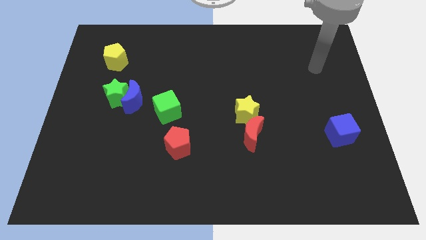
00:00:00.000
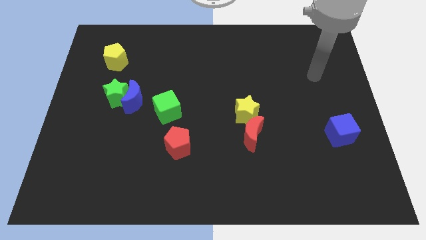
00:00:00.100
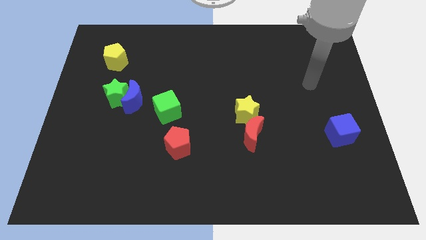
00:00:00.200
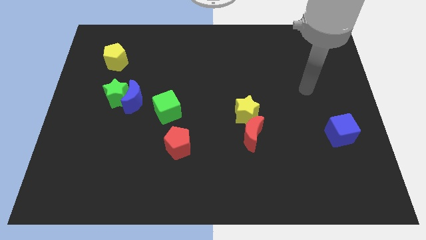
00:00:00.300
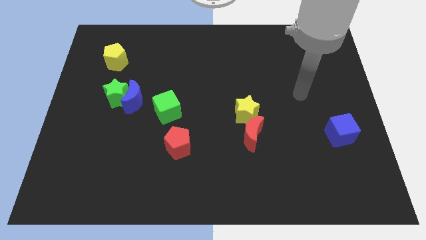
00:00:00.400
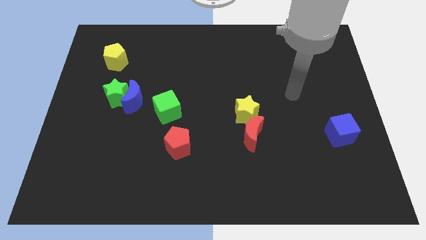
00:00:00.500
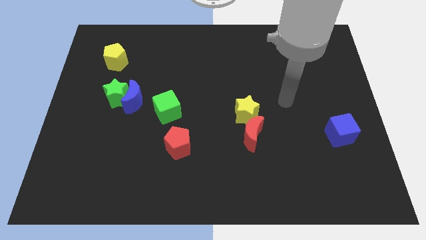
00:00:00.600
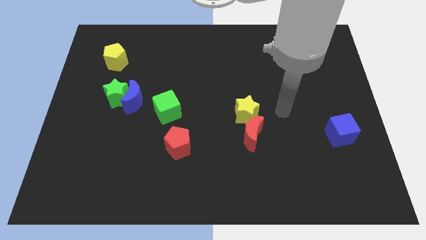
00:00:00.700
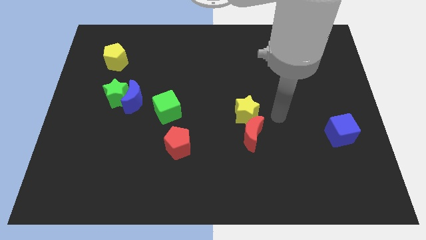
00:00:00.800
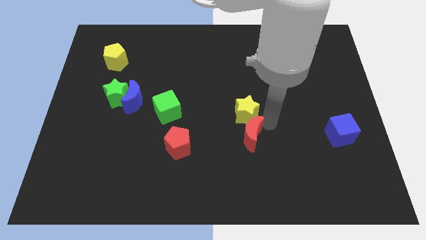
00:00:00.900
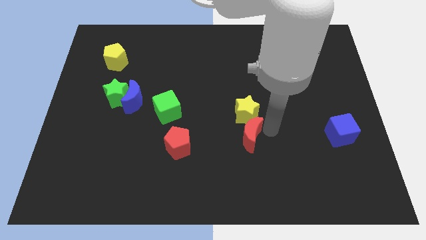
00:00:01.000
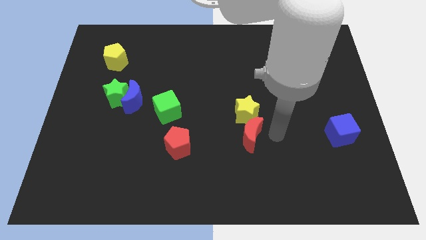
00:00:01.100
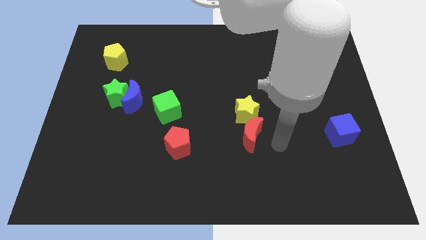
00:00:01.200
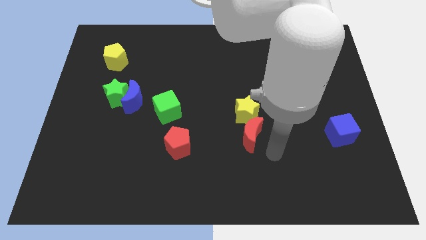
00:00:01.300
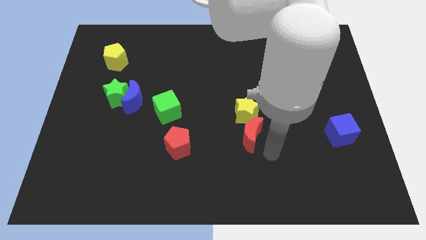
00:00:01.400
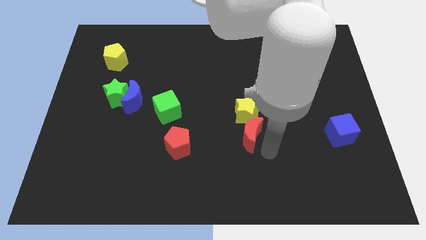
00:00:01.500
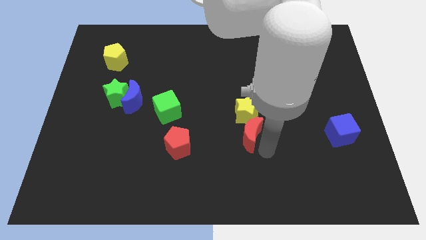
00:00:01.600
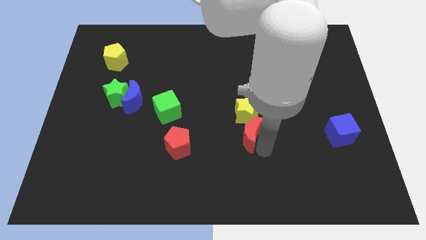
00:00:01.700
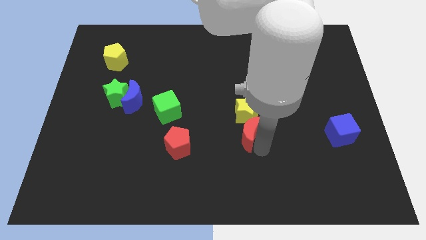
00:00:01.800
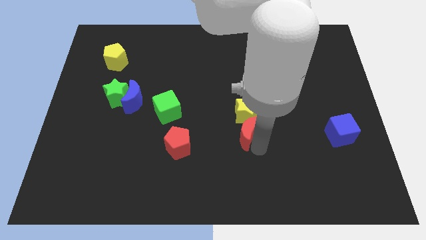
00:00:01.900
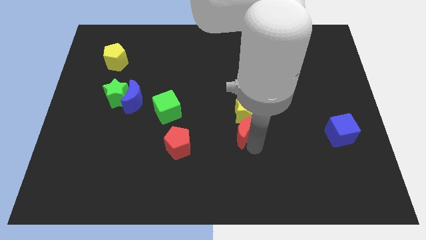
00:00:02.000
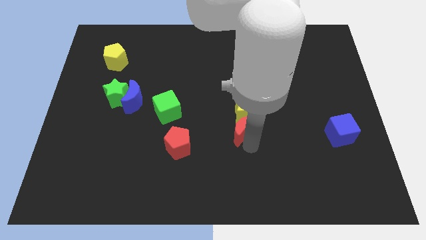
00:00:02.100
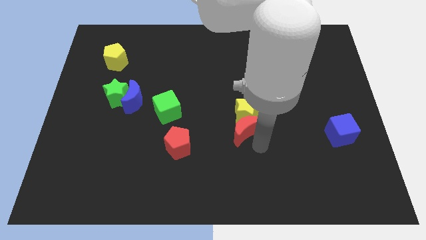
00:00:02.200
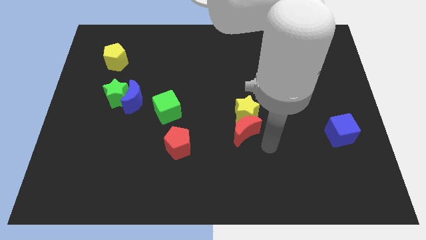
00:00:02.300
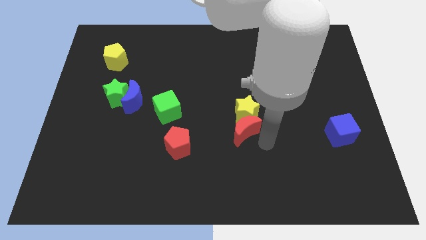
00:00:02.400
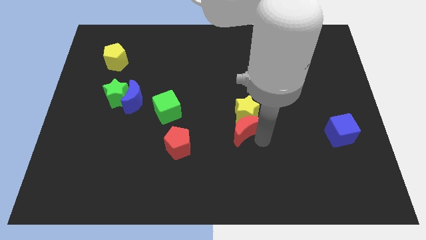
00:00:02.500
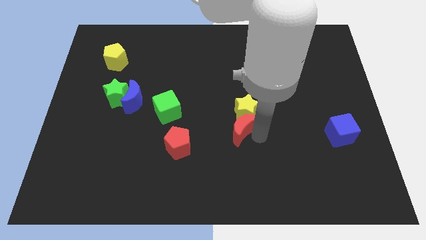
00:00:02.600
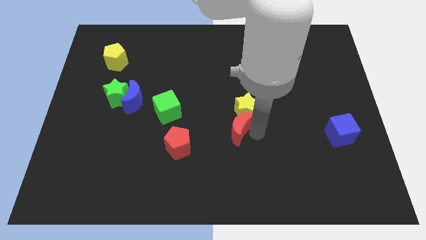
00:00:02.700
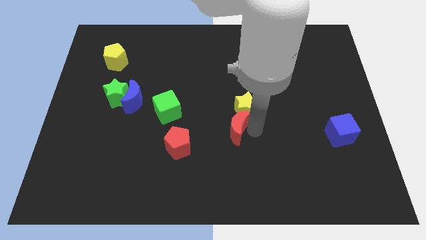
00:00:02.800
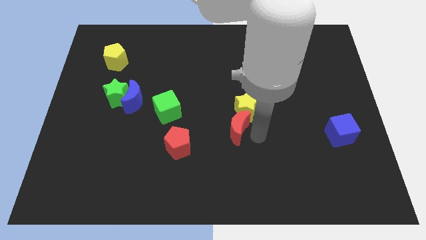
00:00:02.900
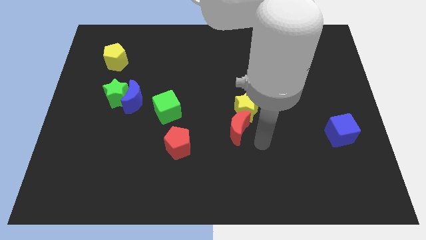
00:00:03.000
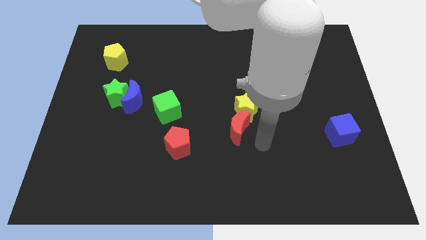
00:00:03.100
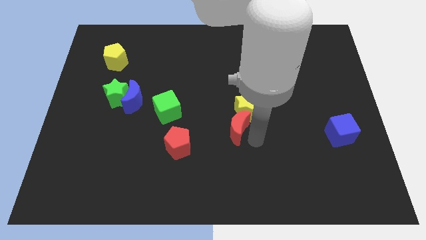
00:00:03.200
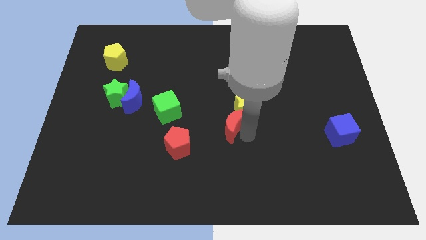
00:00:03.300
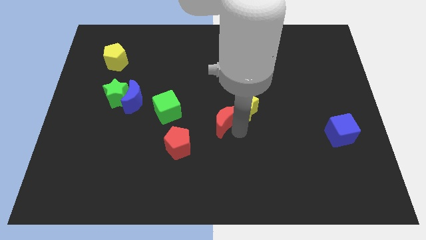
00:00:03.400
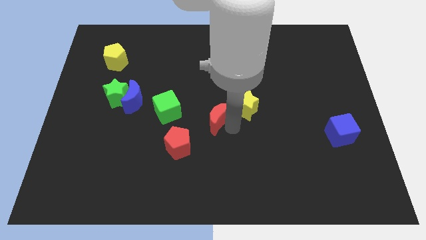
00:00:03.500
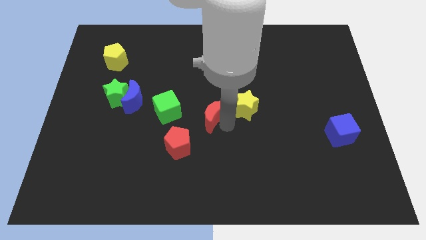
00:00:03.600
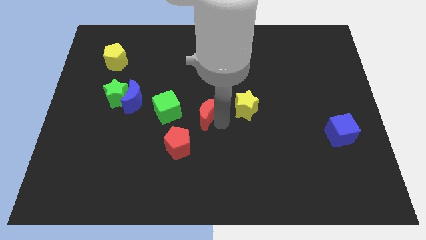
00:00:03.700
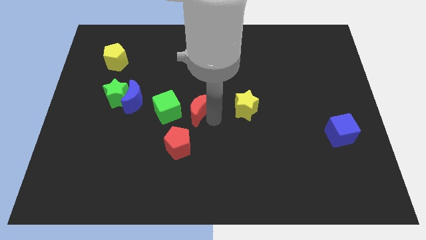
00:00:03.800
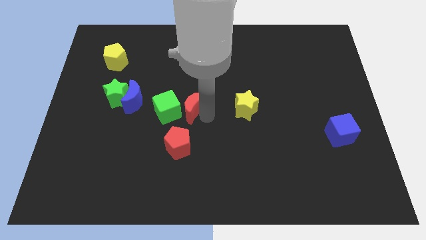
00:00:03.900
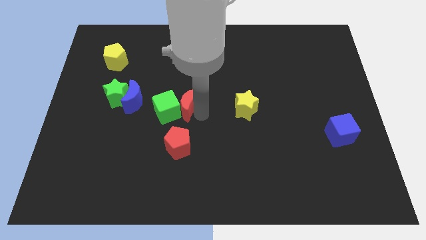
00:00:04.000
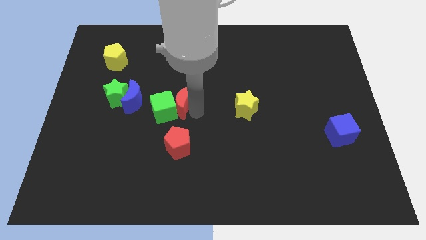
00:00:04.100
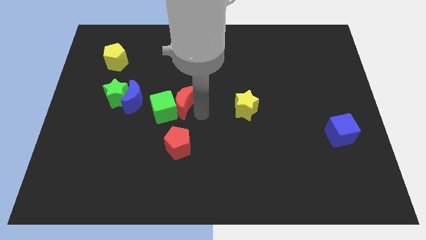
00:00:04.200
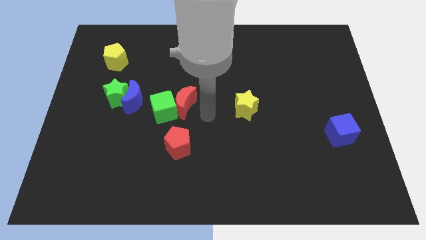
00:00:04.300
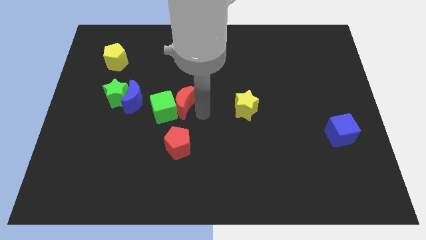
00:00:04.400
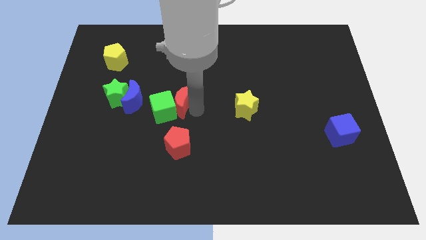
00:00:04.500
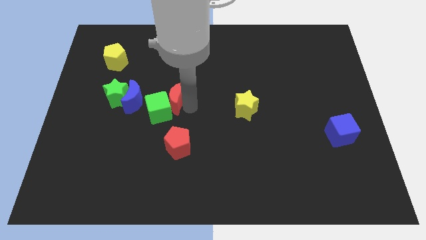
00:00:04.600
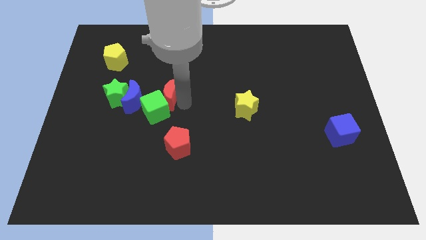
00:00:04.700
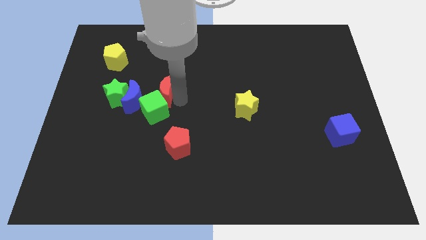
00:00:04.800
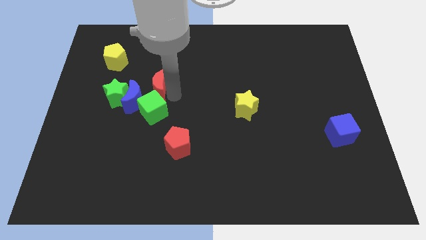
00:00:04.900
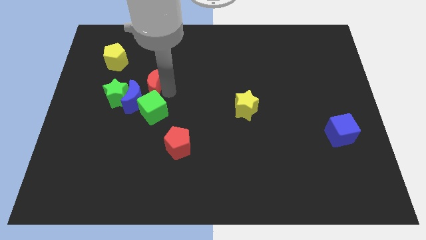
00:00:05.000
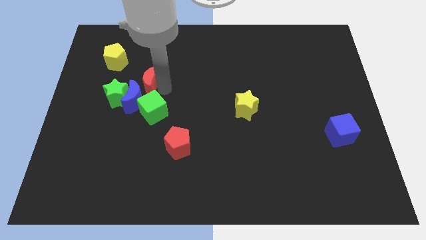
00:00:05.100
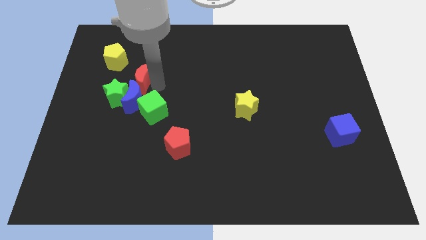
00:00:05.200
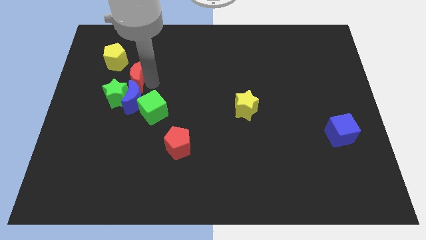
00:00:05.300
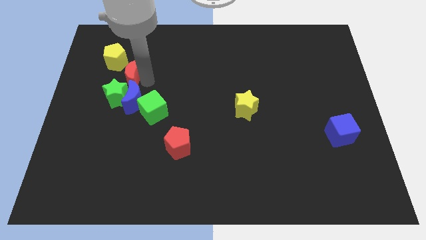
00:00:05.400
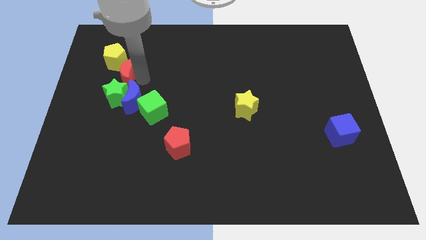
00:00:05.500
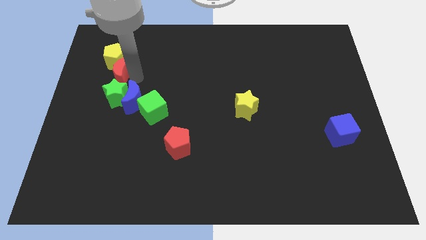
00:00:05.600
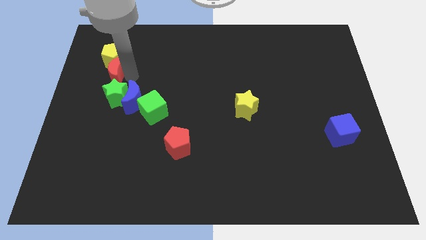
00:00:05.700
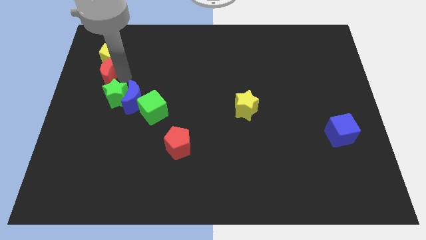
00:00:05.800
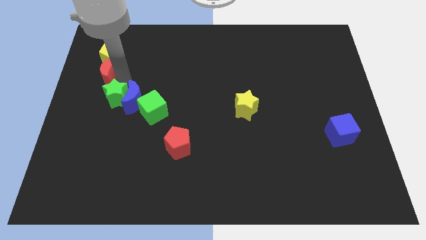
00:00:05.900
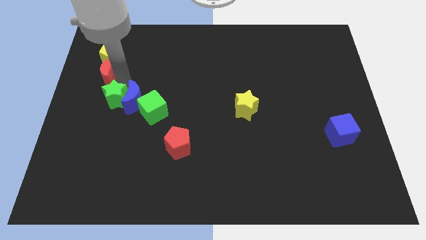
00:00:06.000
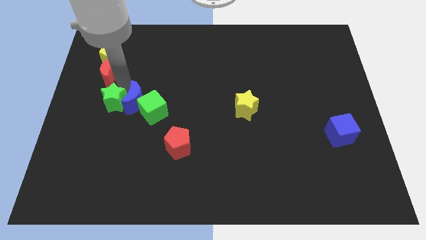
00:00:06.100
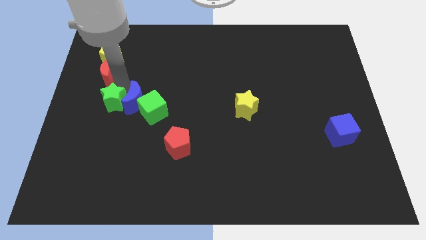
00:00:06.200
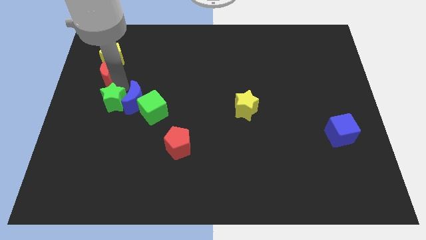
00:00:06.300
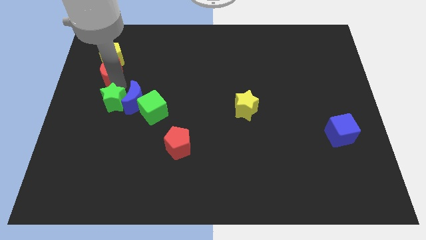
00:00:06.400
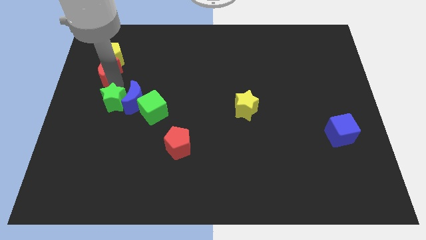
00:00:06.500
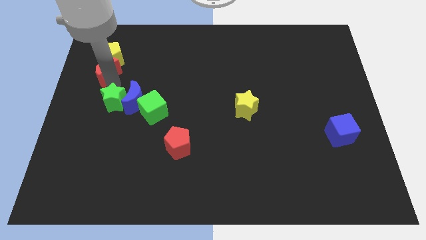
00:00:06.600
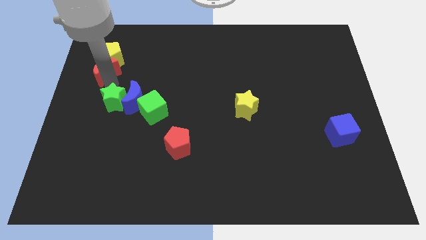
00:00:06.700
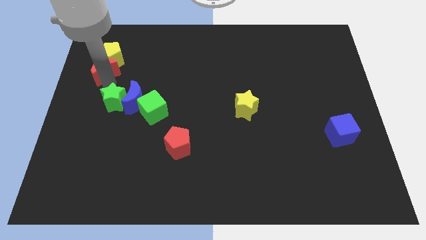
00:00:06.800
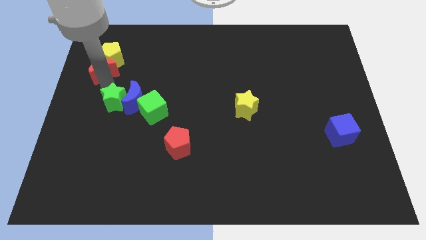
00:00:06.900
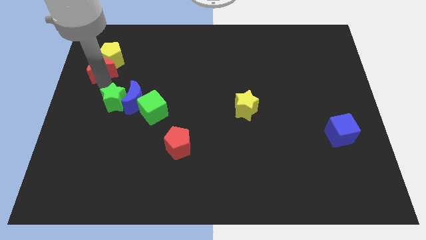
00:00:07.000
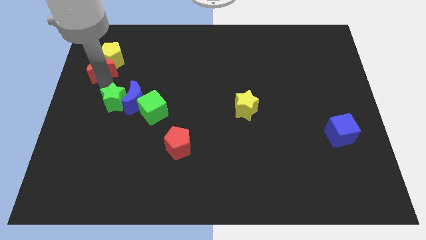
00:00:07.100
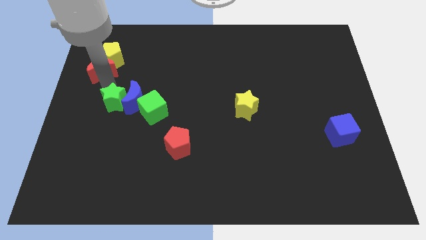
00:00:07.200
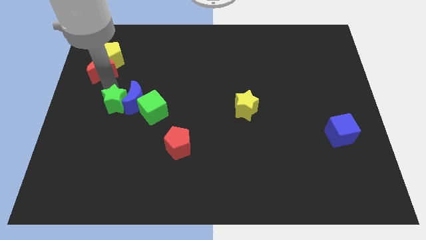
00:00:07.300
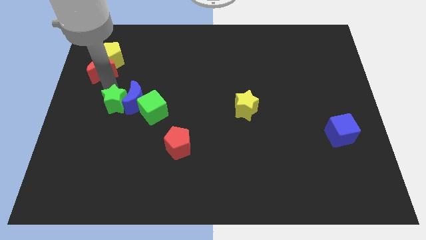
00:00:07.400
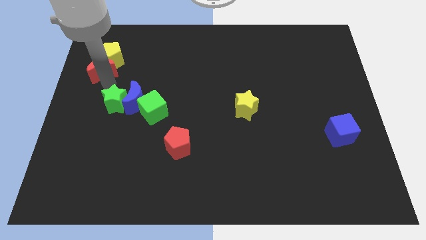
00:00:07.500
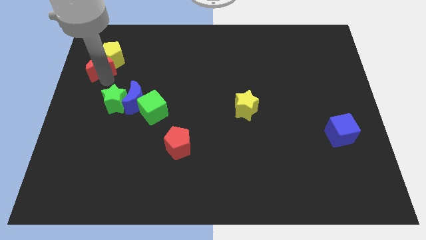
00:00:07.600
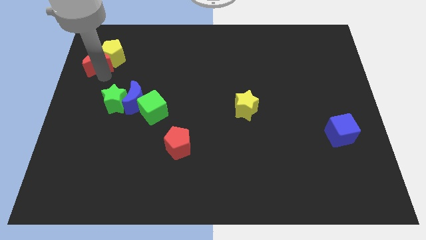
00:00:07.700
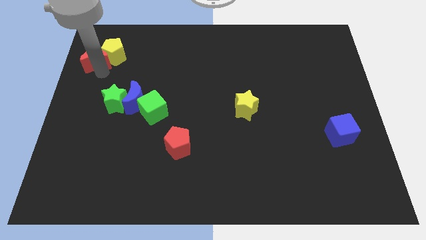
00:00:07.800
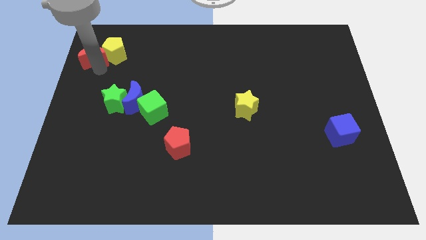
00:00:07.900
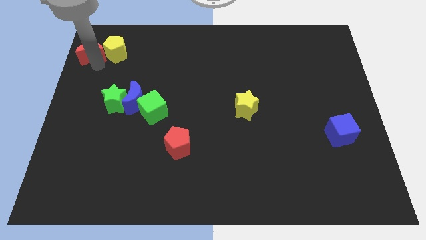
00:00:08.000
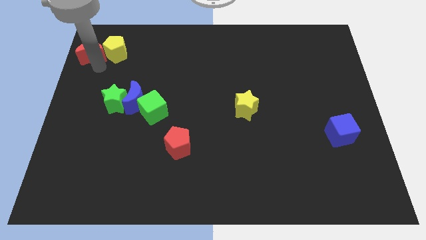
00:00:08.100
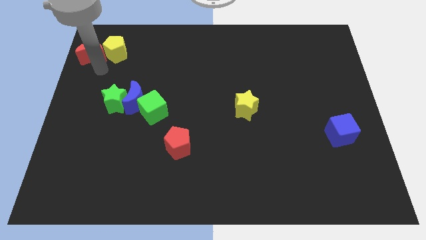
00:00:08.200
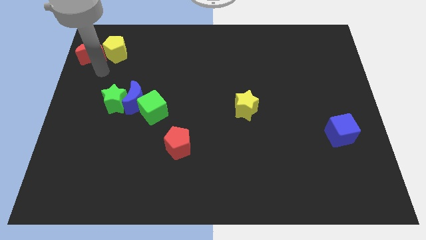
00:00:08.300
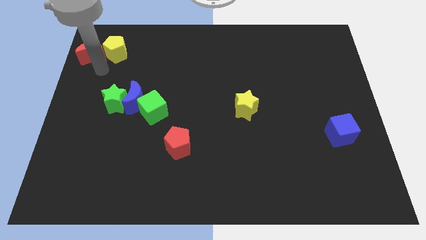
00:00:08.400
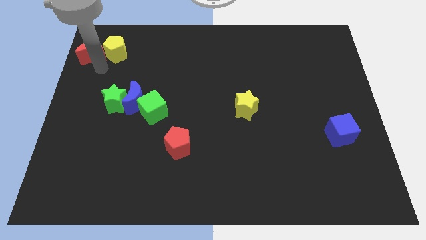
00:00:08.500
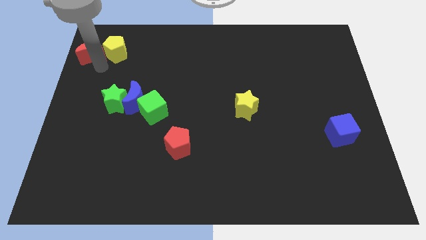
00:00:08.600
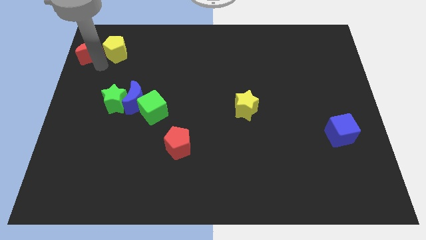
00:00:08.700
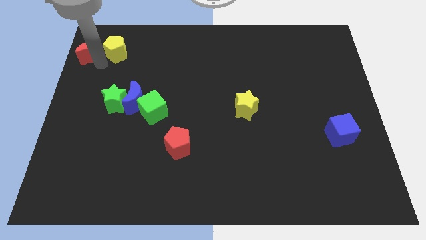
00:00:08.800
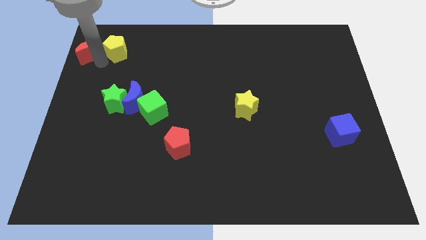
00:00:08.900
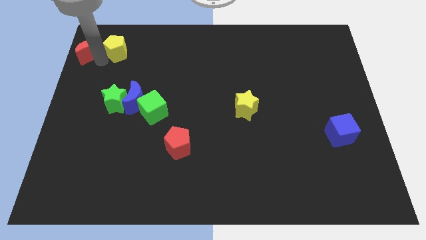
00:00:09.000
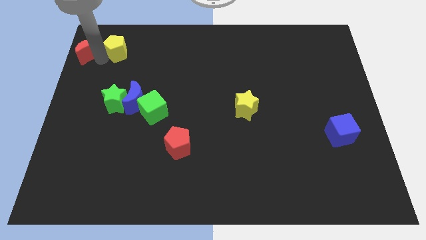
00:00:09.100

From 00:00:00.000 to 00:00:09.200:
move the red moon to the top left corner
